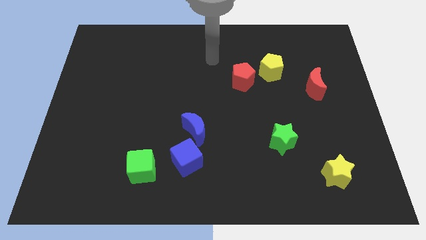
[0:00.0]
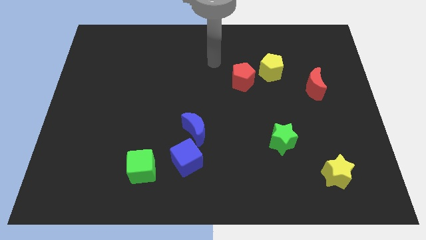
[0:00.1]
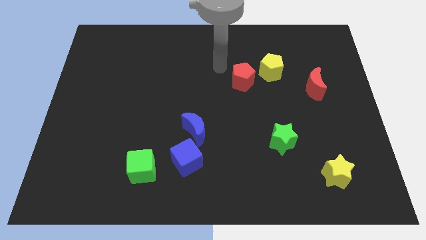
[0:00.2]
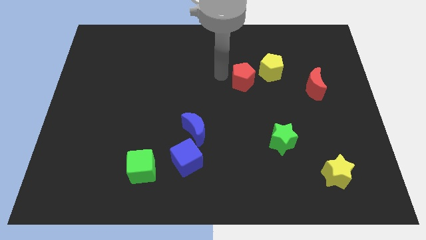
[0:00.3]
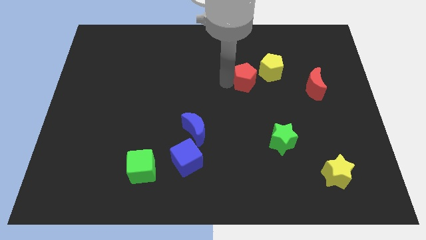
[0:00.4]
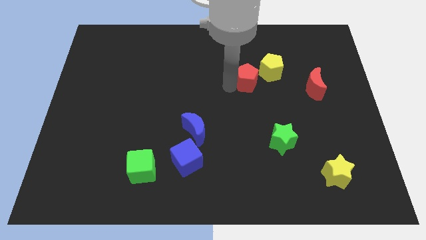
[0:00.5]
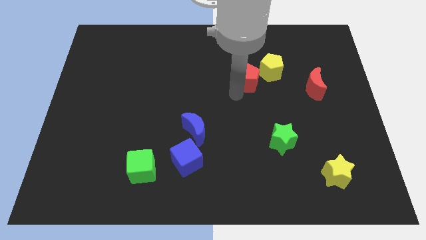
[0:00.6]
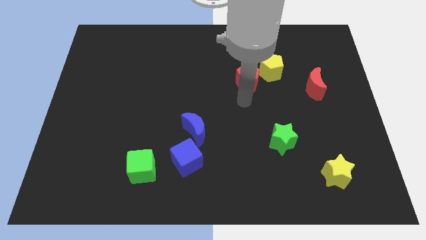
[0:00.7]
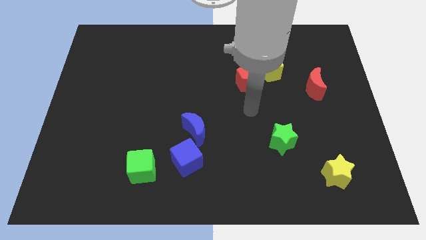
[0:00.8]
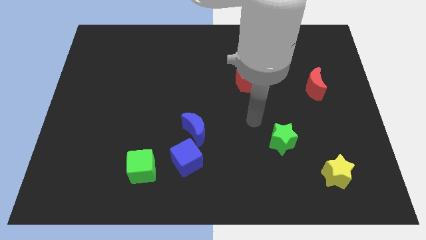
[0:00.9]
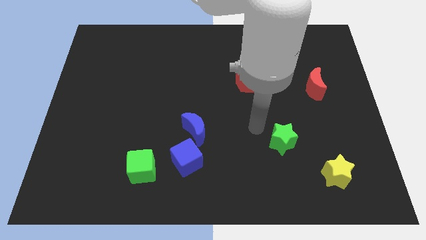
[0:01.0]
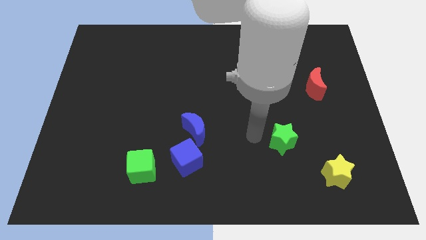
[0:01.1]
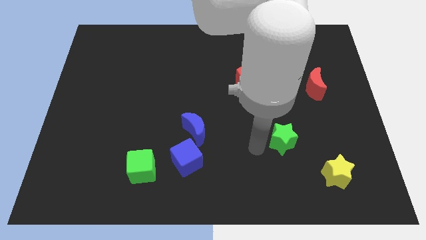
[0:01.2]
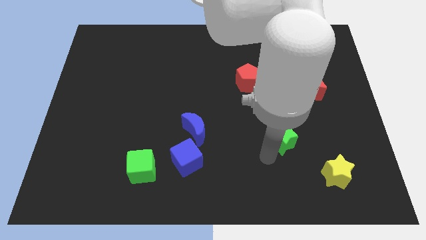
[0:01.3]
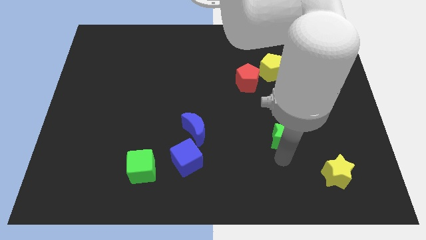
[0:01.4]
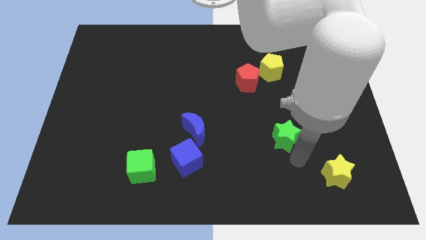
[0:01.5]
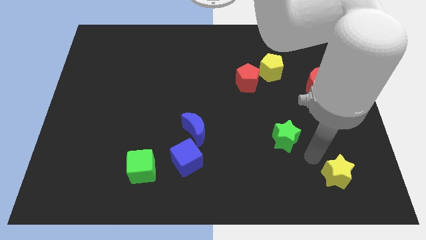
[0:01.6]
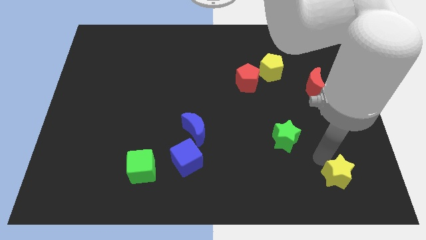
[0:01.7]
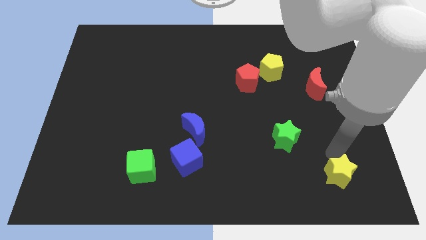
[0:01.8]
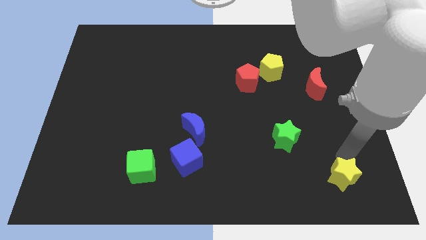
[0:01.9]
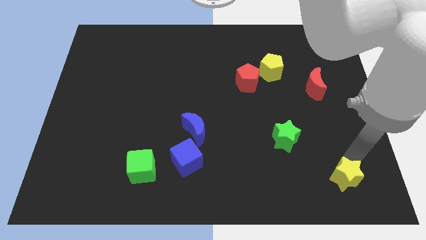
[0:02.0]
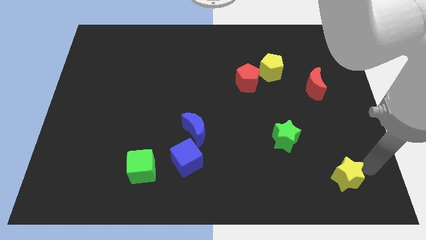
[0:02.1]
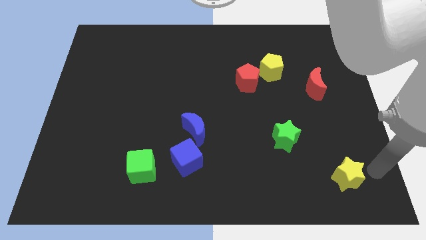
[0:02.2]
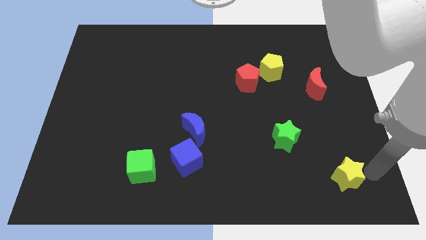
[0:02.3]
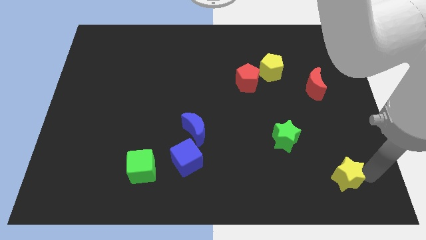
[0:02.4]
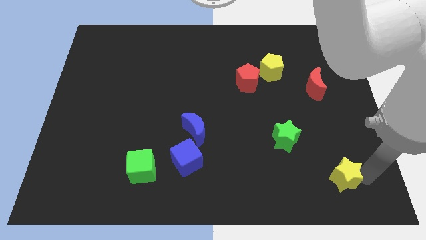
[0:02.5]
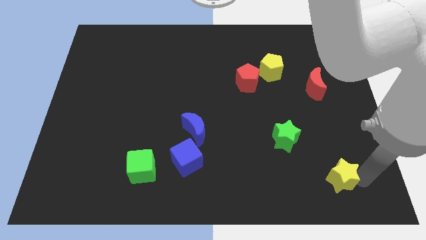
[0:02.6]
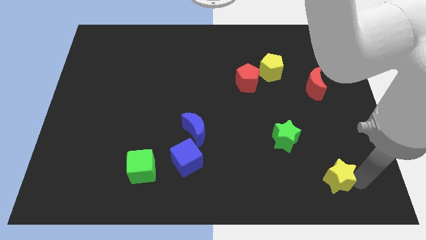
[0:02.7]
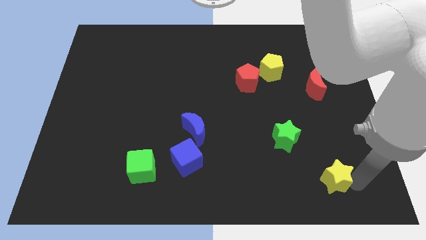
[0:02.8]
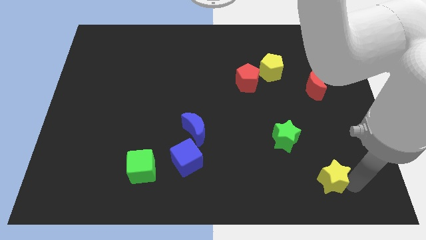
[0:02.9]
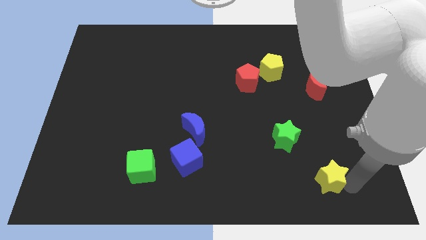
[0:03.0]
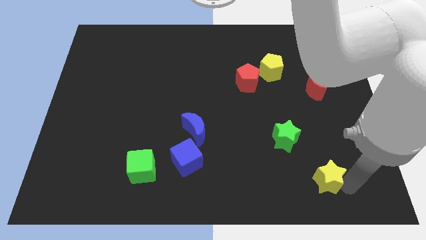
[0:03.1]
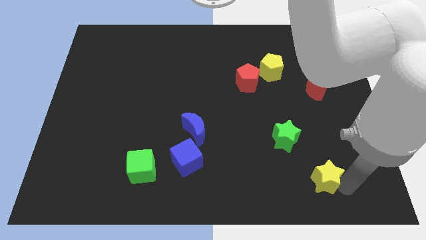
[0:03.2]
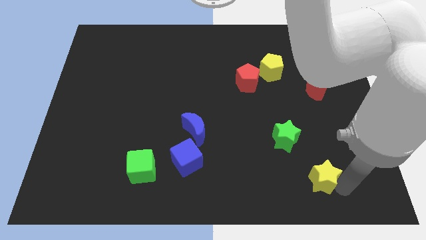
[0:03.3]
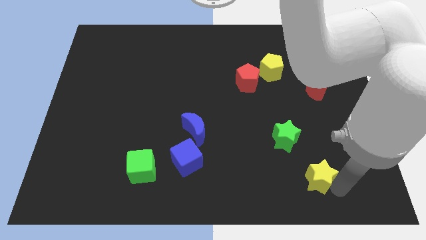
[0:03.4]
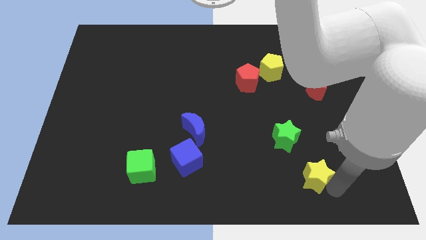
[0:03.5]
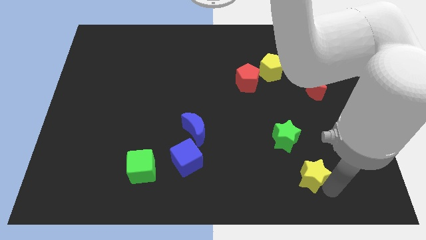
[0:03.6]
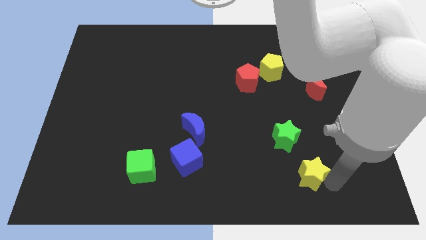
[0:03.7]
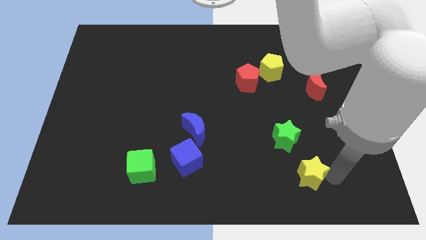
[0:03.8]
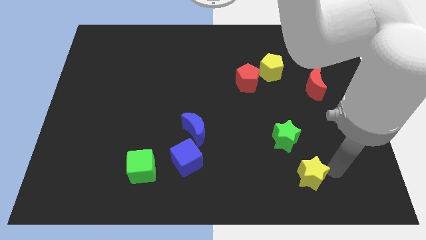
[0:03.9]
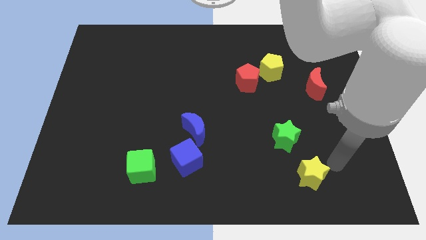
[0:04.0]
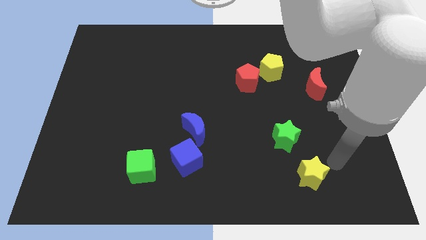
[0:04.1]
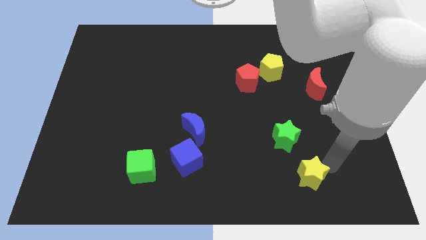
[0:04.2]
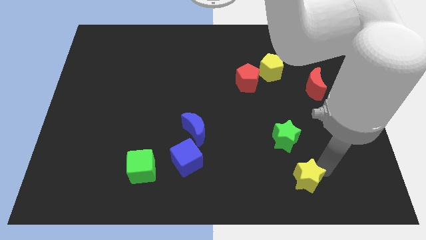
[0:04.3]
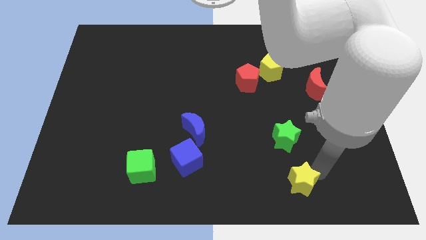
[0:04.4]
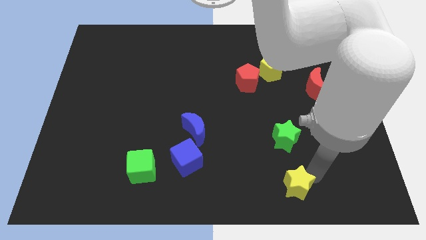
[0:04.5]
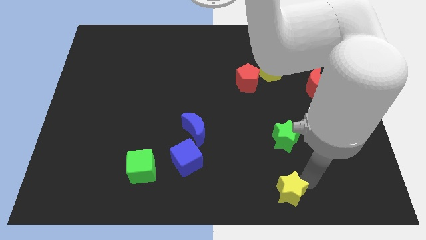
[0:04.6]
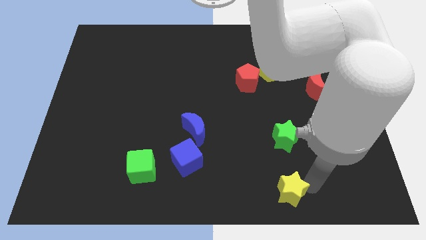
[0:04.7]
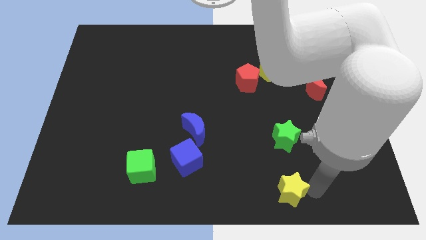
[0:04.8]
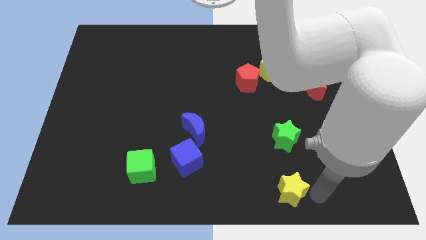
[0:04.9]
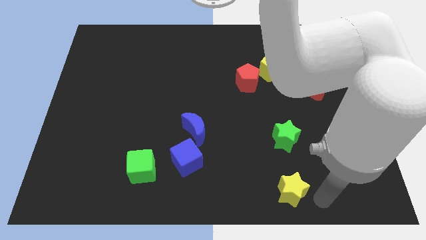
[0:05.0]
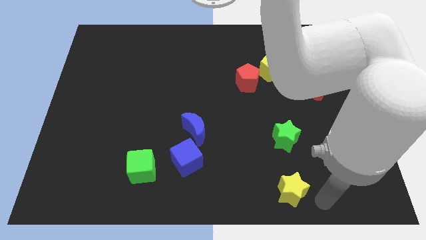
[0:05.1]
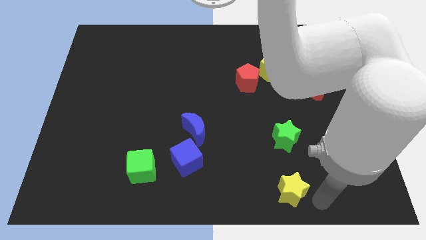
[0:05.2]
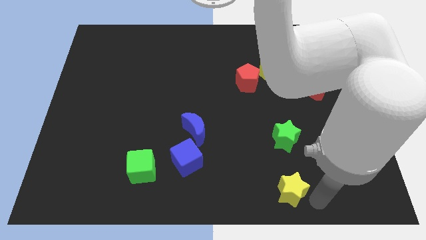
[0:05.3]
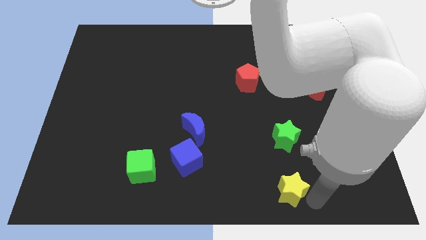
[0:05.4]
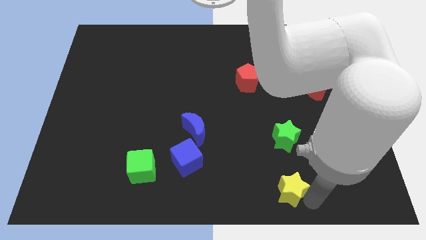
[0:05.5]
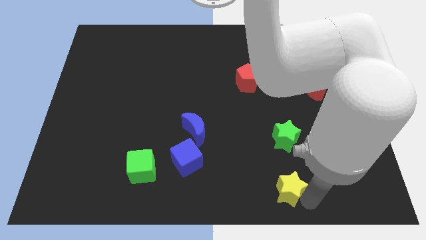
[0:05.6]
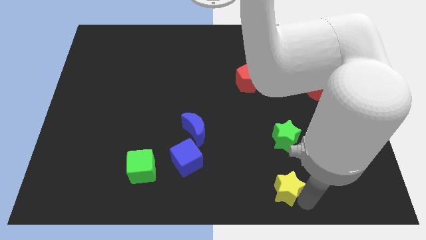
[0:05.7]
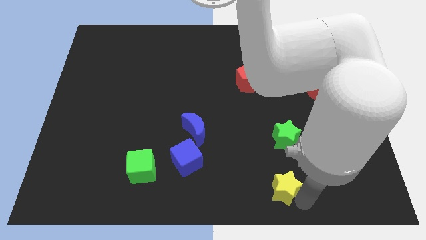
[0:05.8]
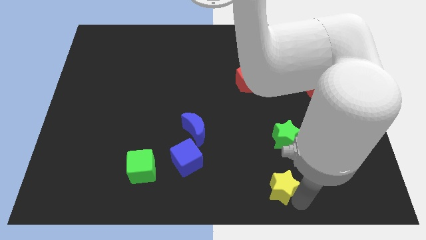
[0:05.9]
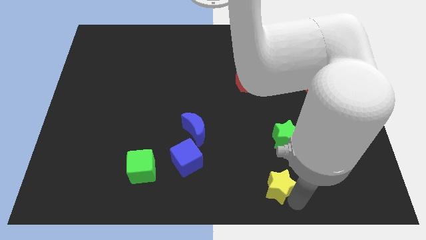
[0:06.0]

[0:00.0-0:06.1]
move the yellow star to the bottom

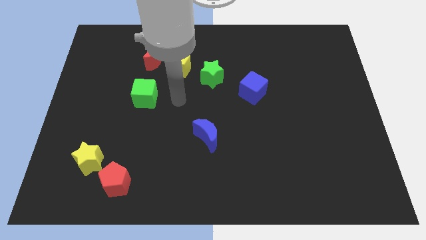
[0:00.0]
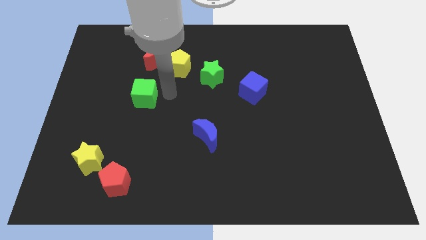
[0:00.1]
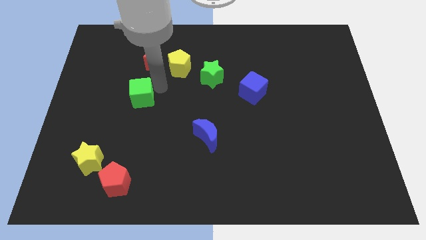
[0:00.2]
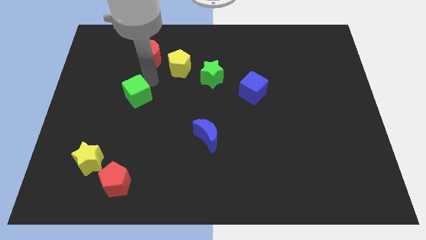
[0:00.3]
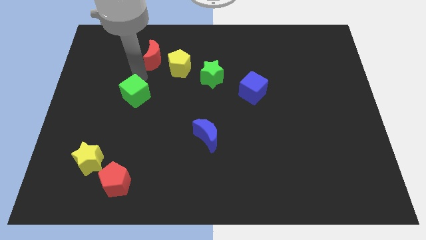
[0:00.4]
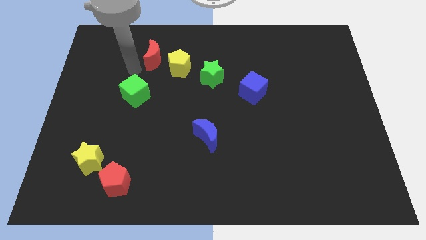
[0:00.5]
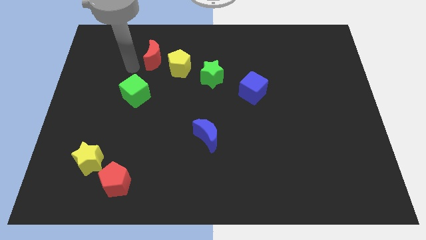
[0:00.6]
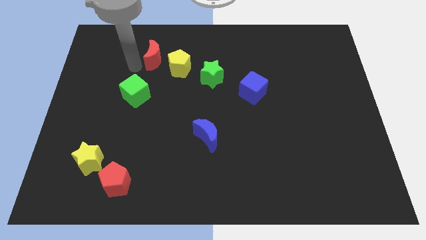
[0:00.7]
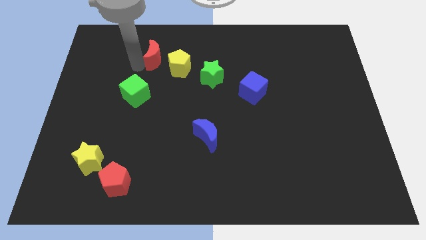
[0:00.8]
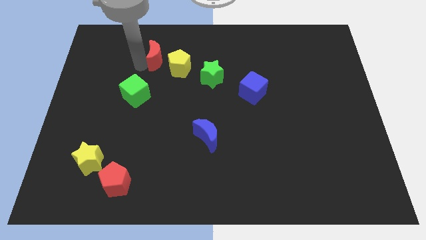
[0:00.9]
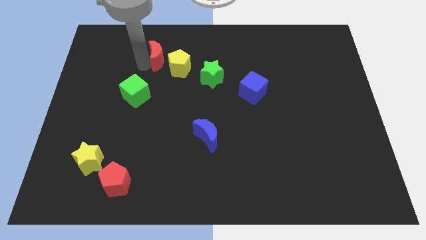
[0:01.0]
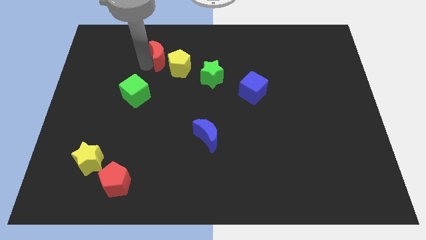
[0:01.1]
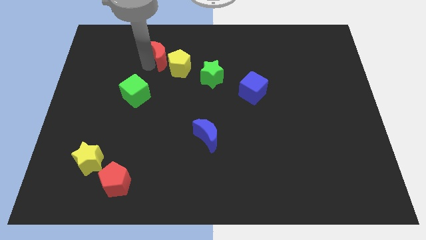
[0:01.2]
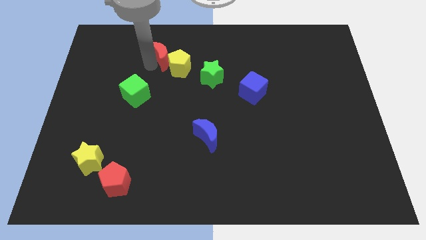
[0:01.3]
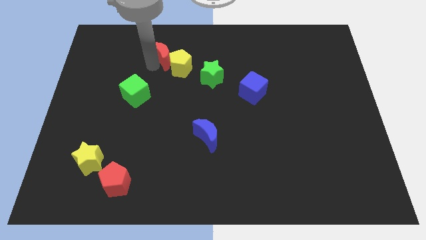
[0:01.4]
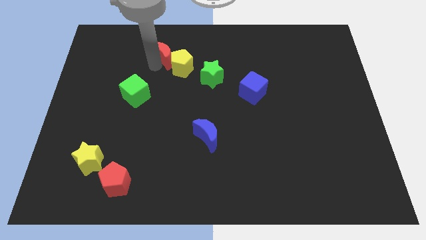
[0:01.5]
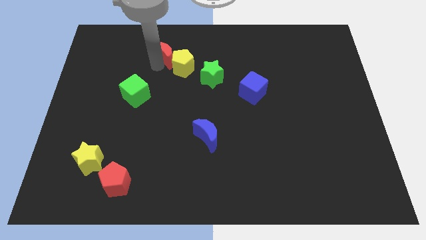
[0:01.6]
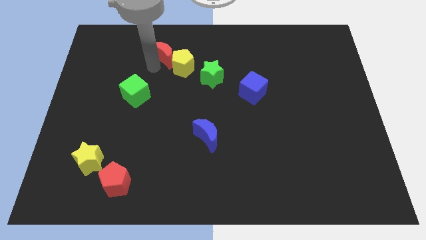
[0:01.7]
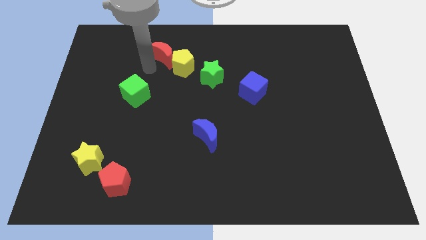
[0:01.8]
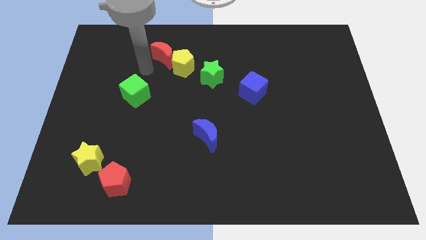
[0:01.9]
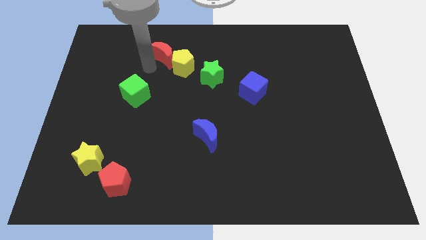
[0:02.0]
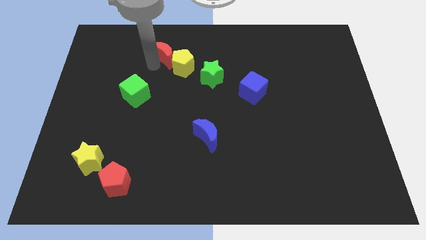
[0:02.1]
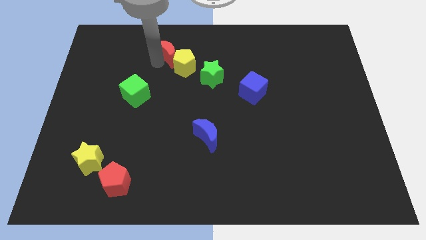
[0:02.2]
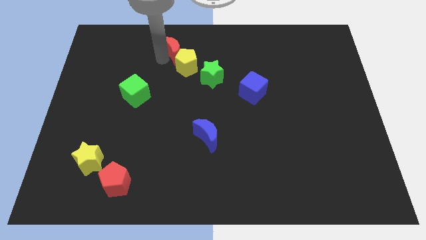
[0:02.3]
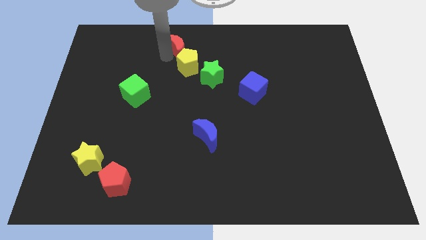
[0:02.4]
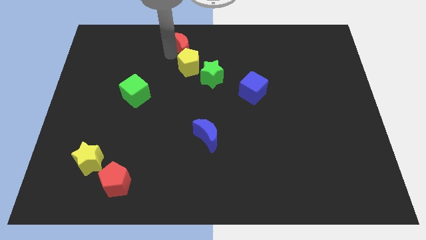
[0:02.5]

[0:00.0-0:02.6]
put the red moon to the towards your base
